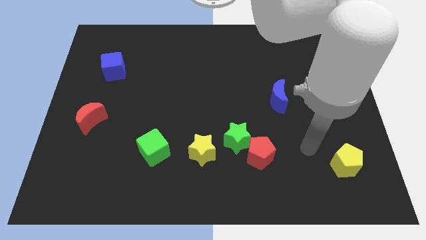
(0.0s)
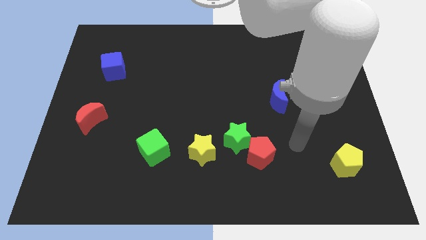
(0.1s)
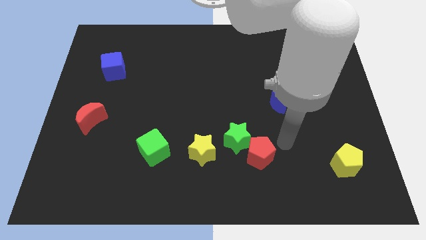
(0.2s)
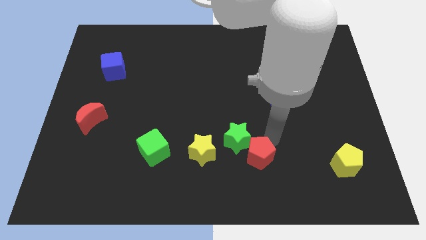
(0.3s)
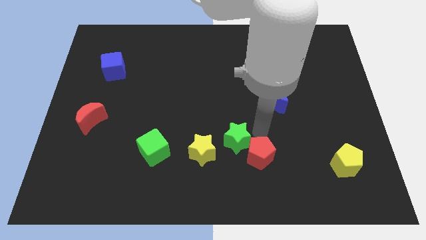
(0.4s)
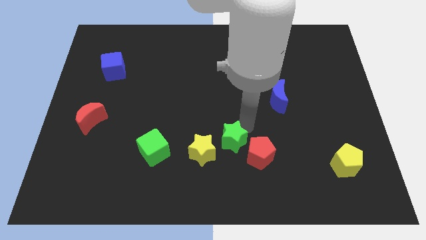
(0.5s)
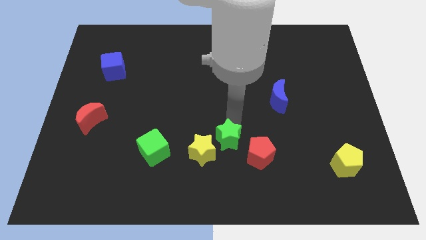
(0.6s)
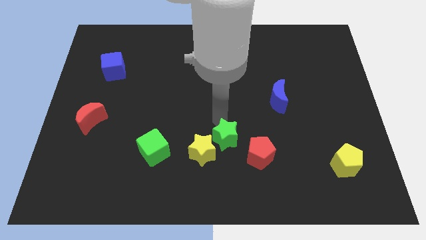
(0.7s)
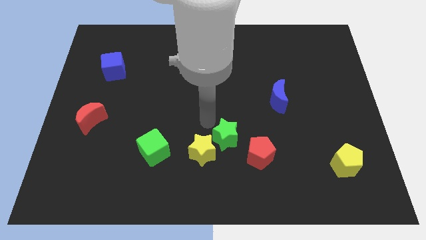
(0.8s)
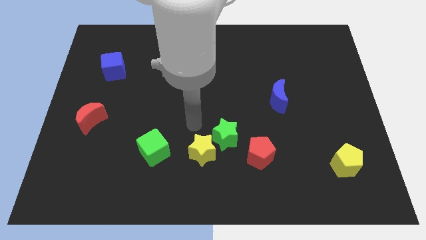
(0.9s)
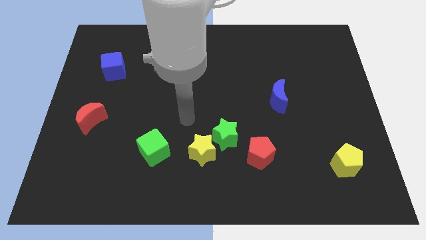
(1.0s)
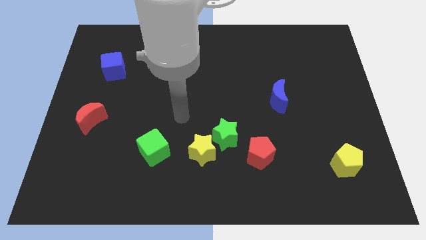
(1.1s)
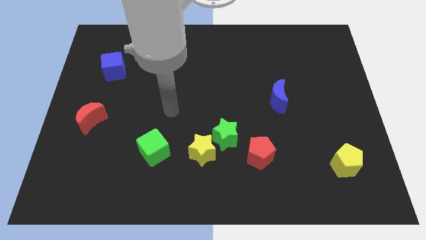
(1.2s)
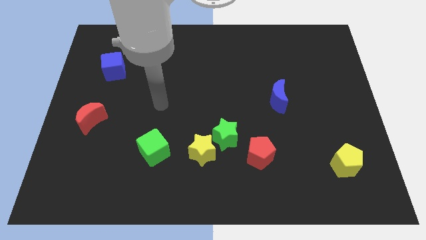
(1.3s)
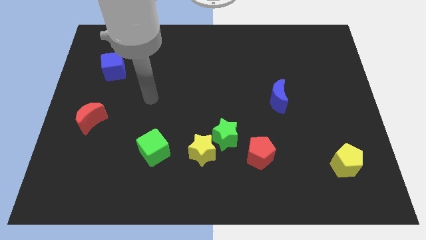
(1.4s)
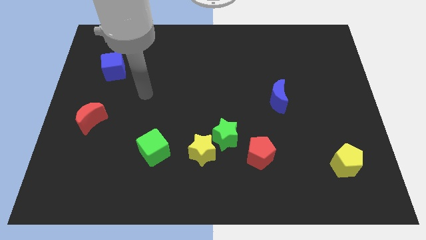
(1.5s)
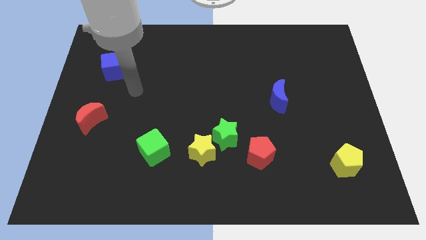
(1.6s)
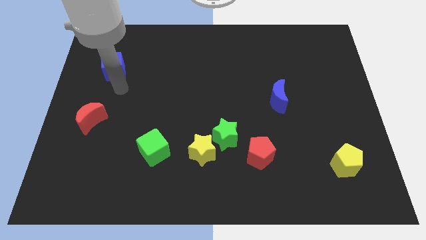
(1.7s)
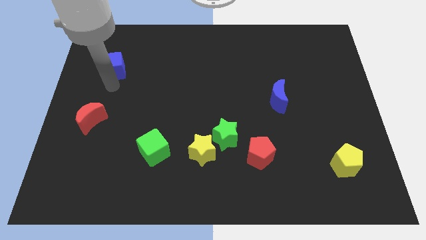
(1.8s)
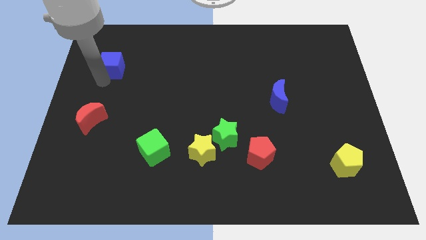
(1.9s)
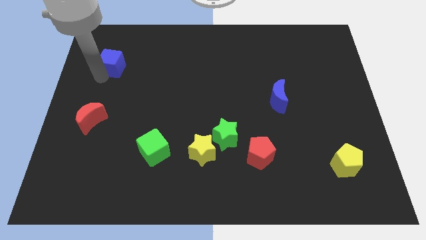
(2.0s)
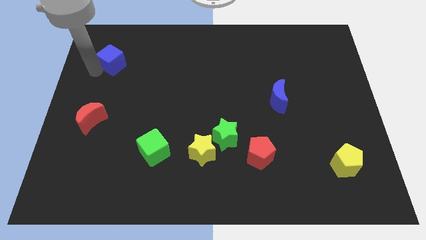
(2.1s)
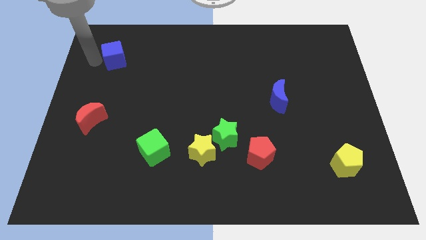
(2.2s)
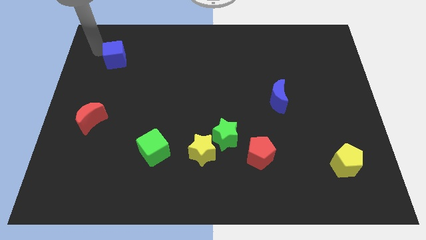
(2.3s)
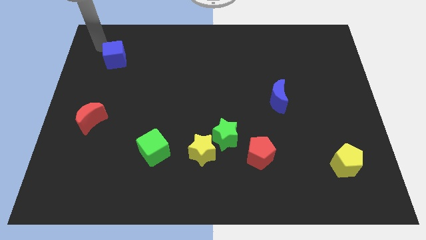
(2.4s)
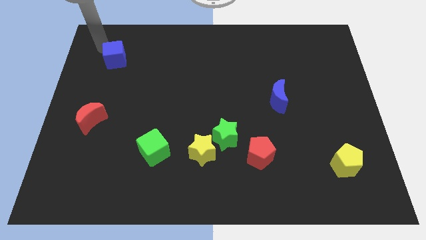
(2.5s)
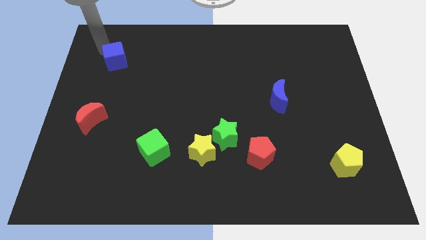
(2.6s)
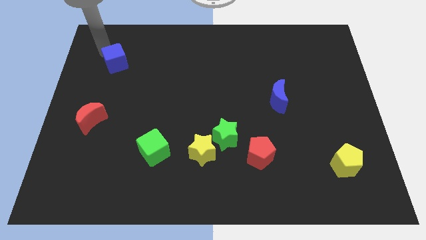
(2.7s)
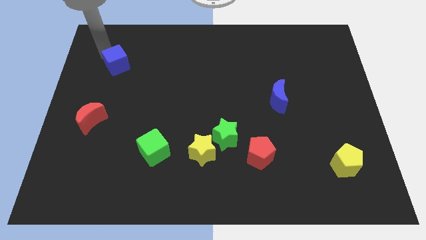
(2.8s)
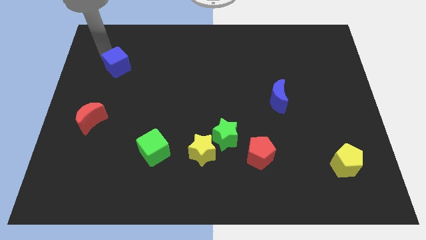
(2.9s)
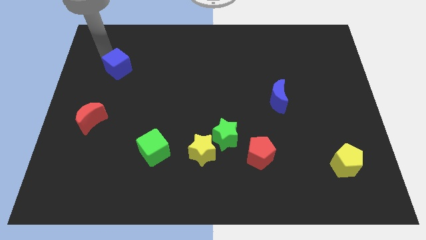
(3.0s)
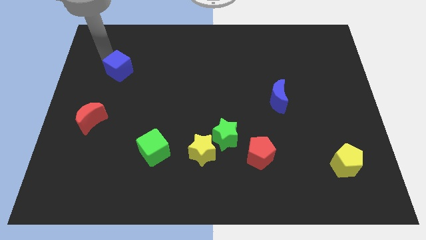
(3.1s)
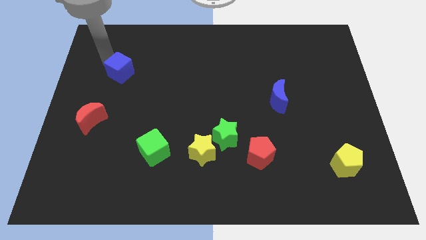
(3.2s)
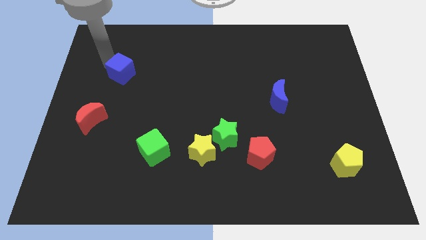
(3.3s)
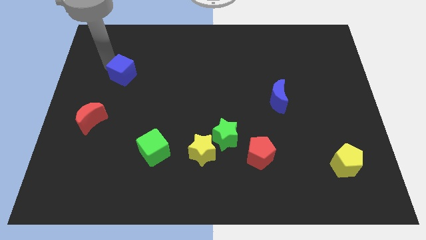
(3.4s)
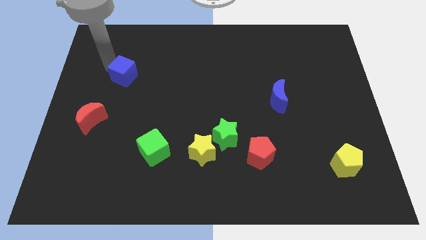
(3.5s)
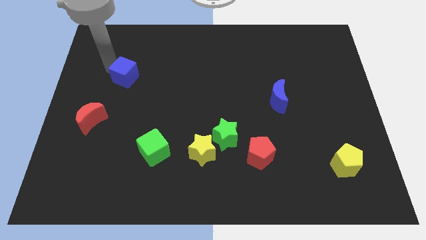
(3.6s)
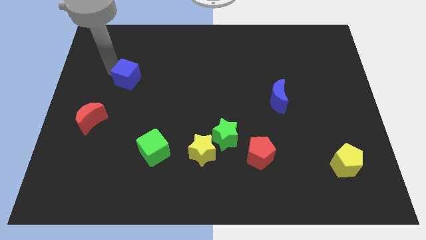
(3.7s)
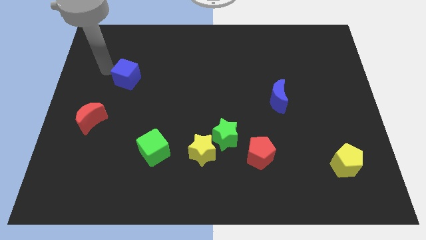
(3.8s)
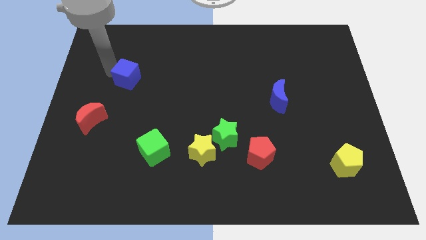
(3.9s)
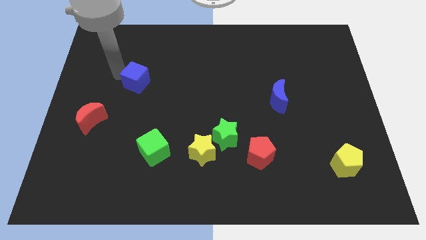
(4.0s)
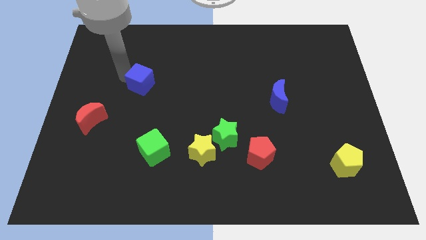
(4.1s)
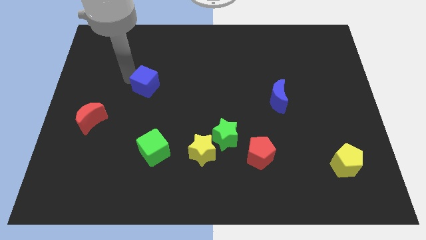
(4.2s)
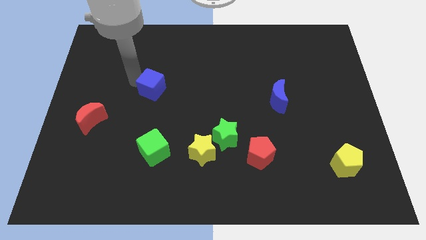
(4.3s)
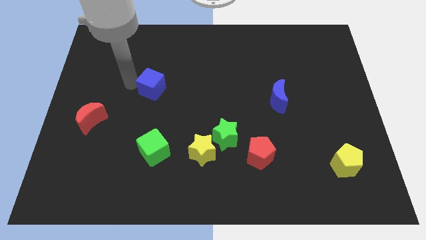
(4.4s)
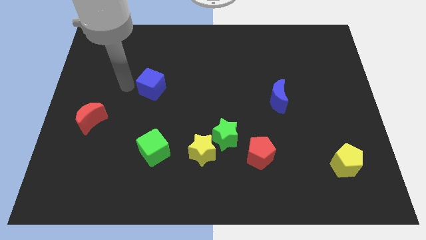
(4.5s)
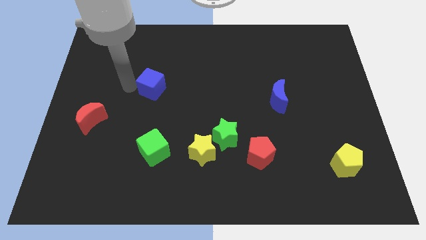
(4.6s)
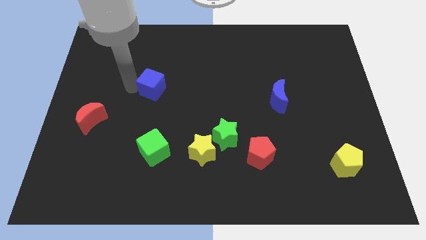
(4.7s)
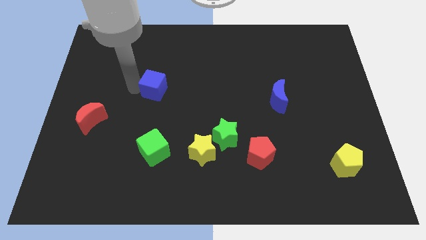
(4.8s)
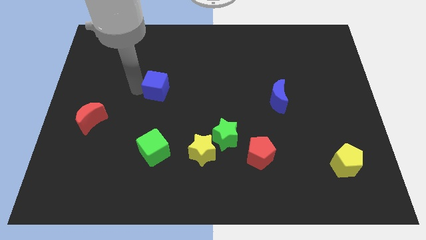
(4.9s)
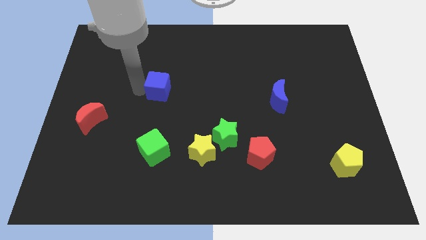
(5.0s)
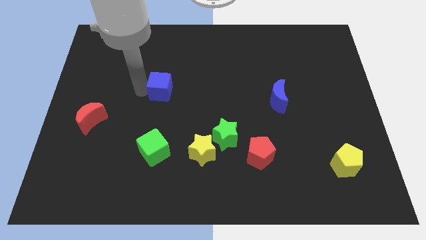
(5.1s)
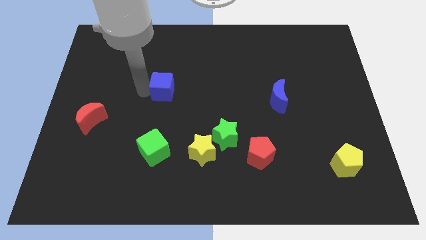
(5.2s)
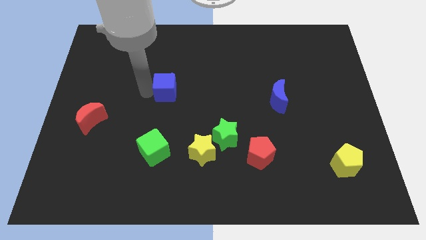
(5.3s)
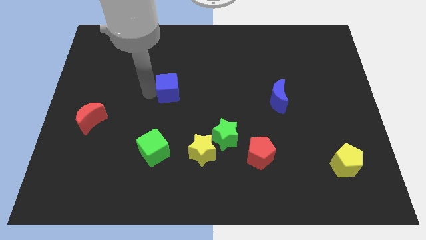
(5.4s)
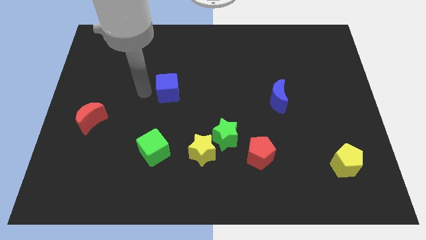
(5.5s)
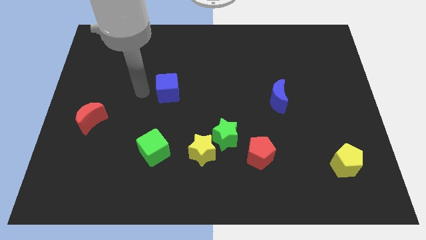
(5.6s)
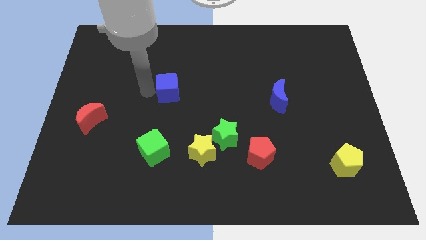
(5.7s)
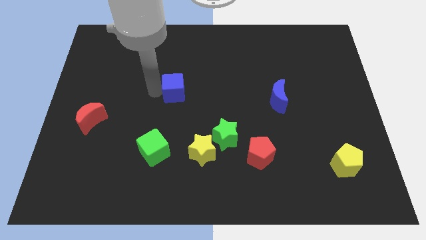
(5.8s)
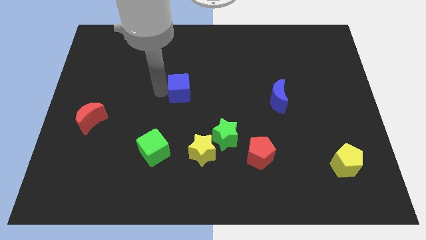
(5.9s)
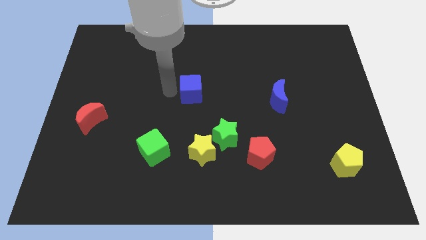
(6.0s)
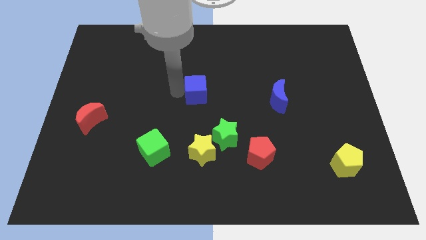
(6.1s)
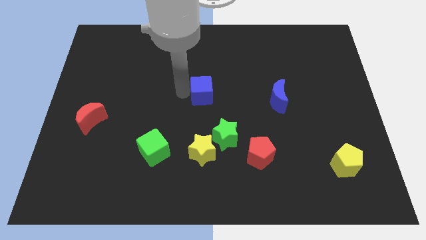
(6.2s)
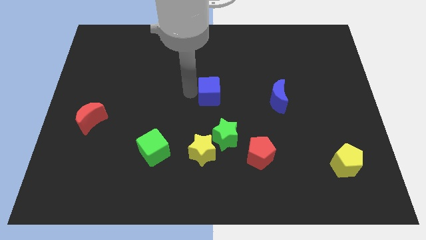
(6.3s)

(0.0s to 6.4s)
slide the blue cube above the green star
